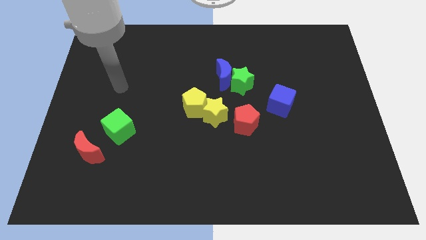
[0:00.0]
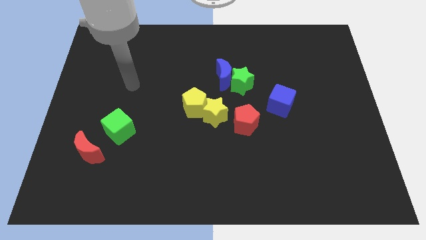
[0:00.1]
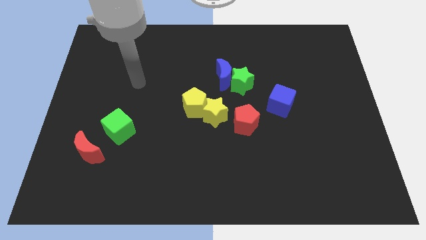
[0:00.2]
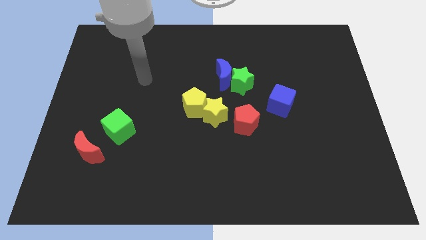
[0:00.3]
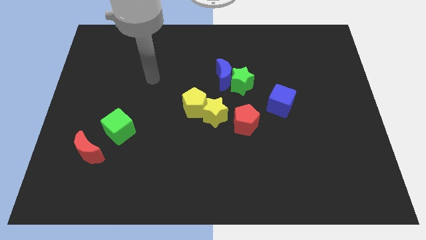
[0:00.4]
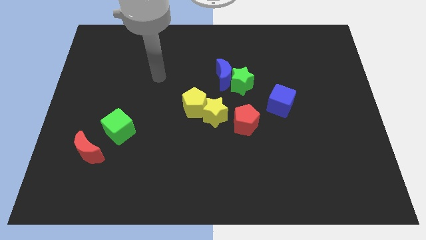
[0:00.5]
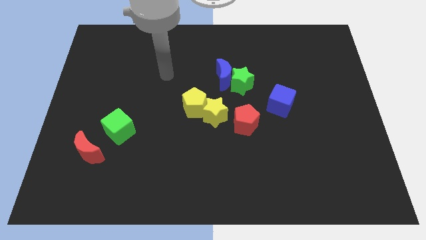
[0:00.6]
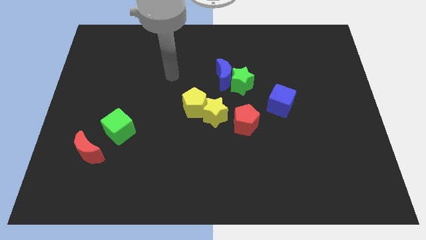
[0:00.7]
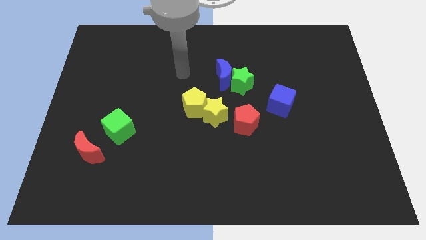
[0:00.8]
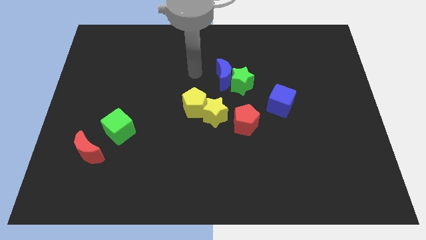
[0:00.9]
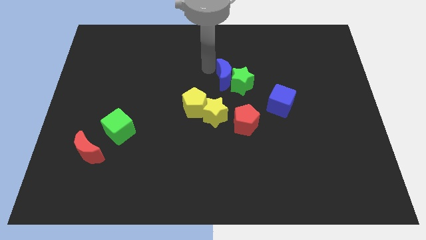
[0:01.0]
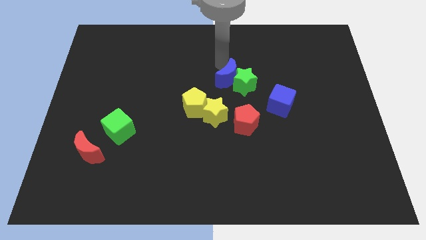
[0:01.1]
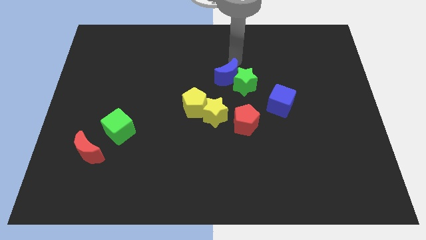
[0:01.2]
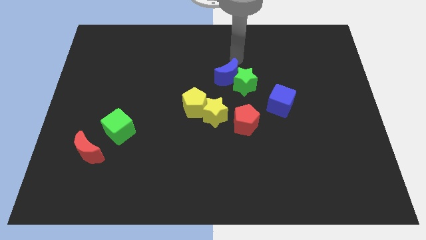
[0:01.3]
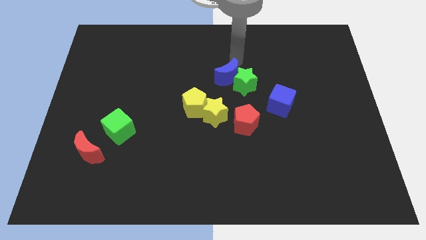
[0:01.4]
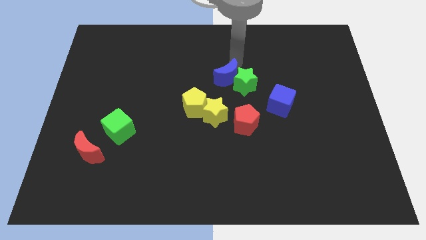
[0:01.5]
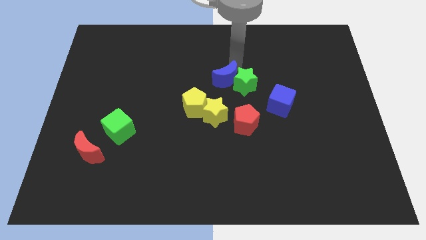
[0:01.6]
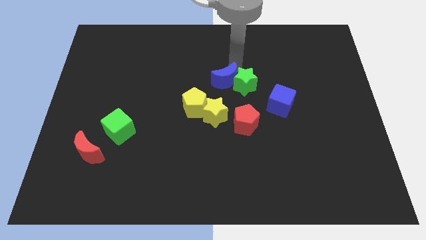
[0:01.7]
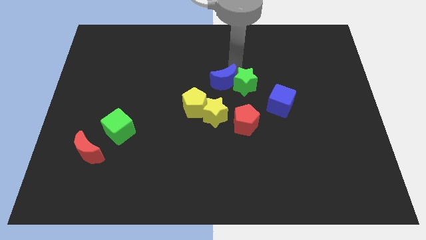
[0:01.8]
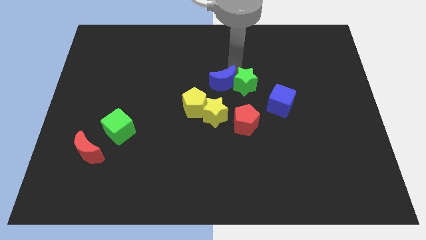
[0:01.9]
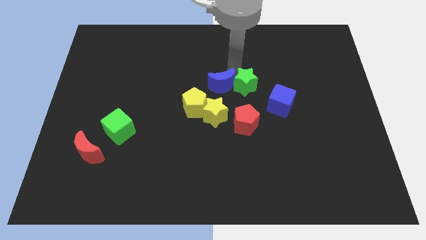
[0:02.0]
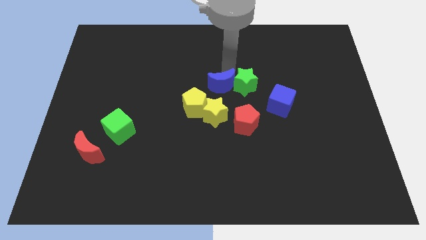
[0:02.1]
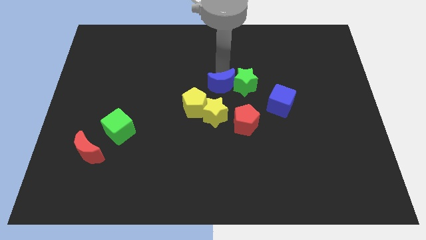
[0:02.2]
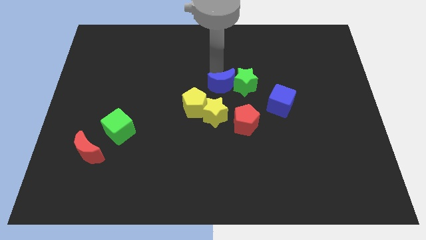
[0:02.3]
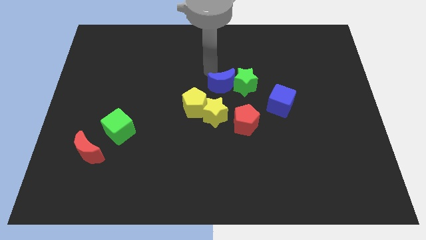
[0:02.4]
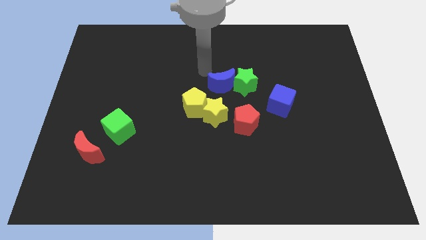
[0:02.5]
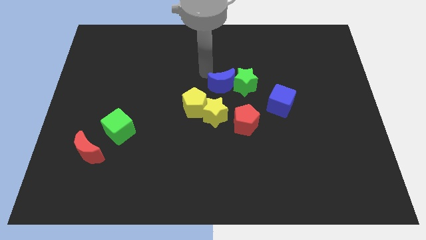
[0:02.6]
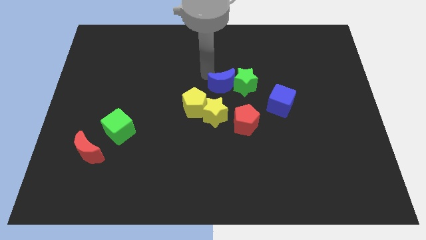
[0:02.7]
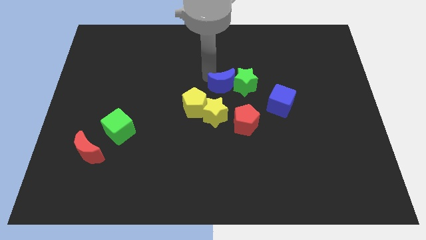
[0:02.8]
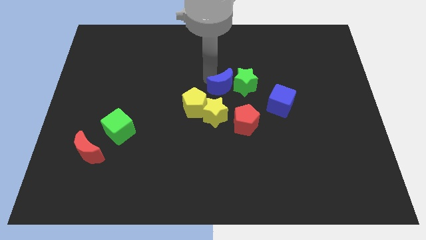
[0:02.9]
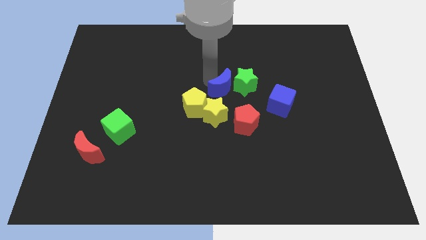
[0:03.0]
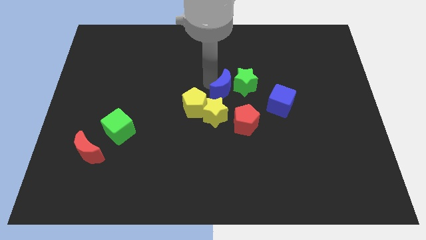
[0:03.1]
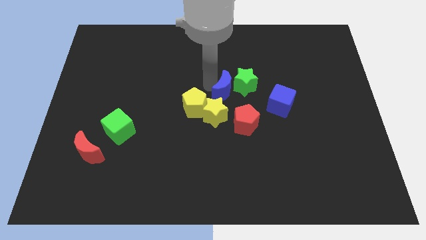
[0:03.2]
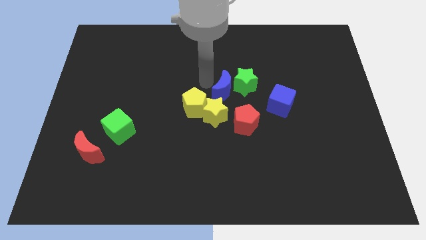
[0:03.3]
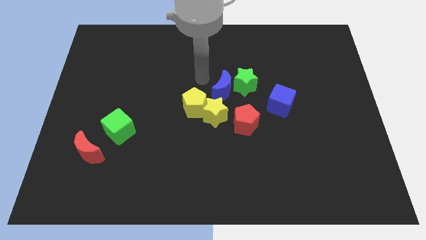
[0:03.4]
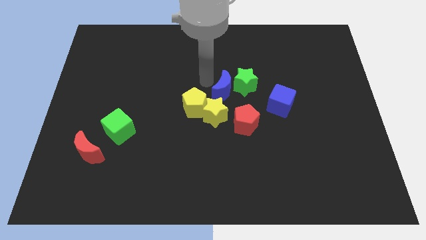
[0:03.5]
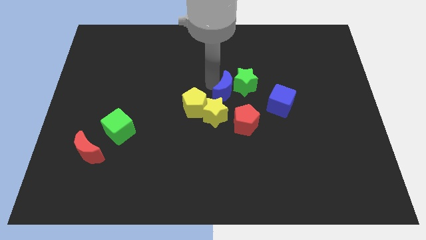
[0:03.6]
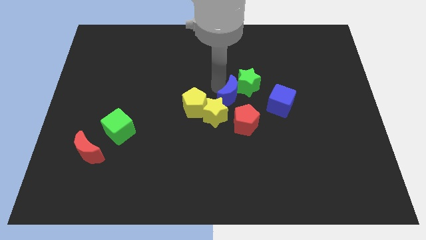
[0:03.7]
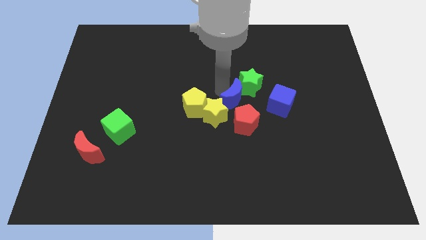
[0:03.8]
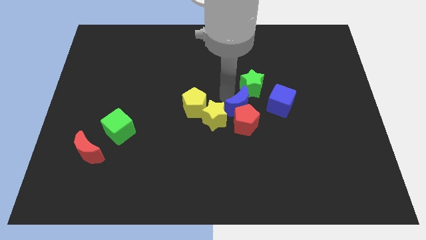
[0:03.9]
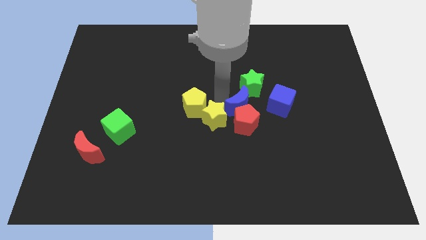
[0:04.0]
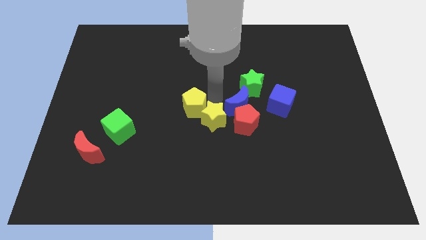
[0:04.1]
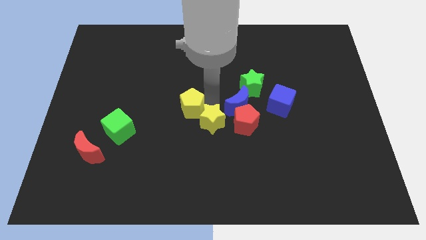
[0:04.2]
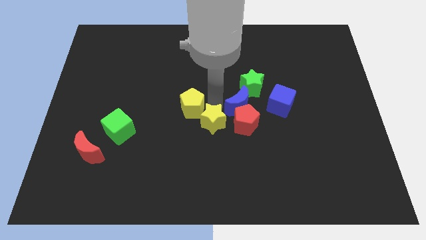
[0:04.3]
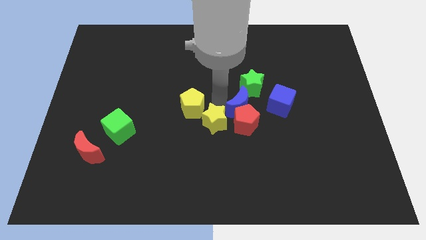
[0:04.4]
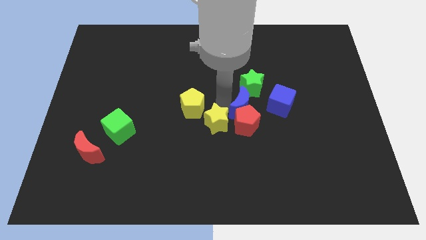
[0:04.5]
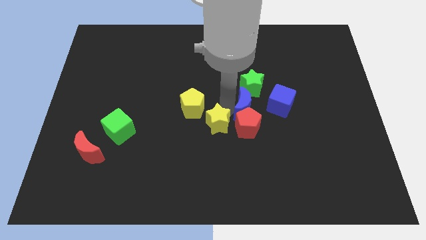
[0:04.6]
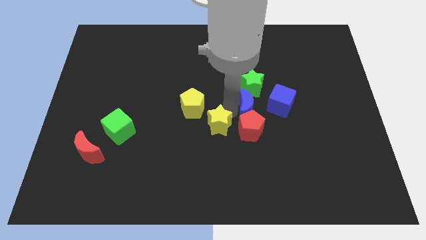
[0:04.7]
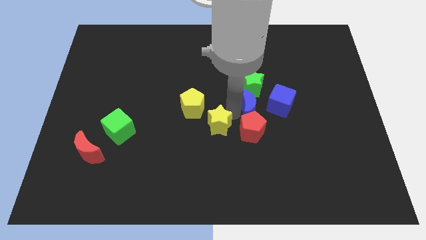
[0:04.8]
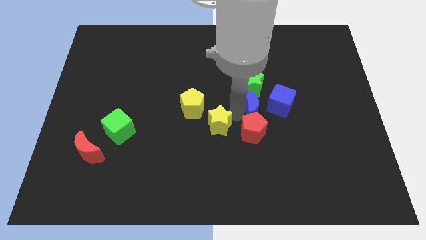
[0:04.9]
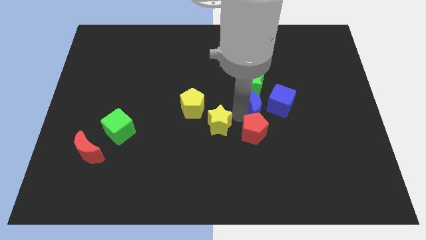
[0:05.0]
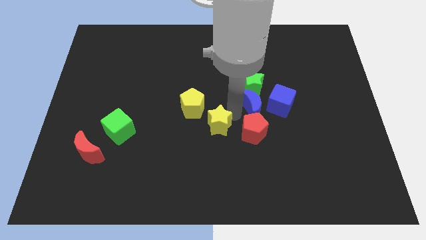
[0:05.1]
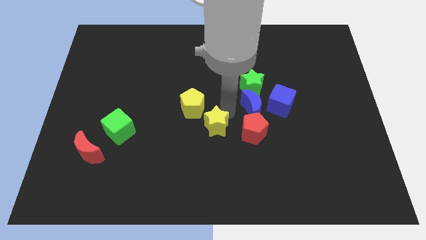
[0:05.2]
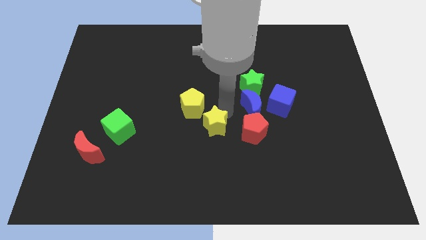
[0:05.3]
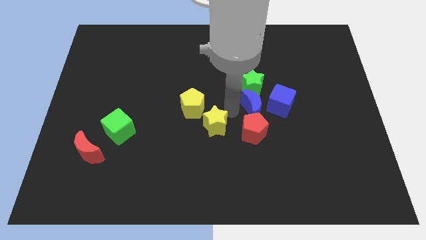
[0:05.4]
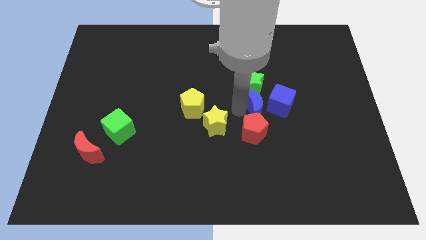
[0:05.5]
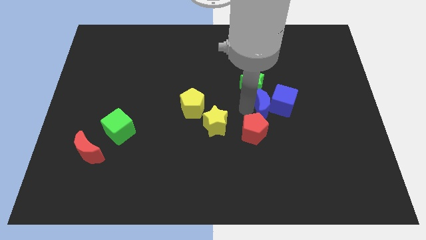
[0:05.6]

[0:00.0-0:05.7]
slide the blue moon to the blue cube

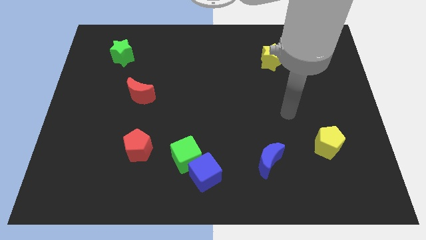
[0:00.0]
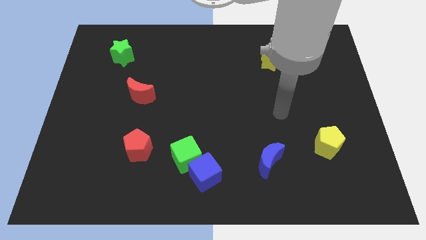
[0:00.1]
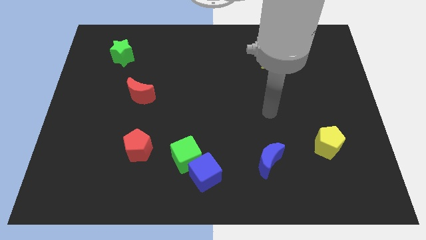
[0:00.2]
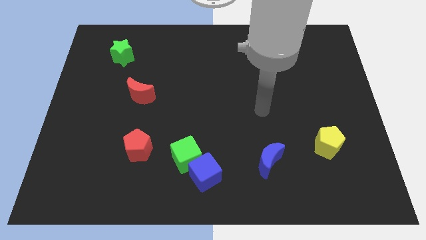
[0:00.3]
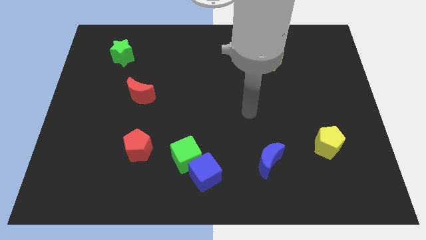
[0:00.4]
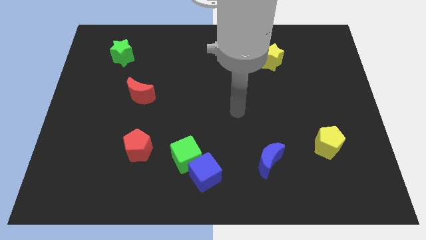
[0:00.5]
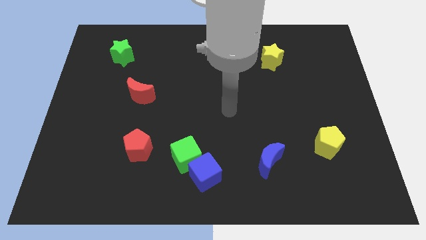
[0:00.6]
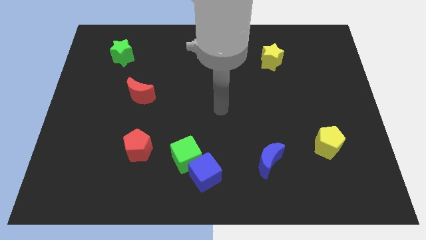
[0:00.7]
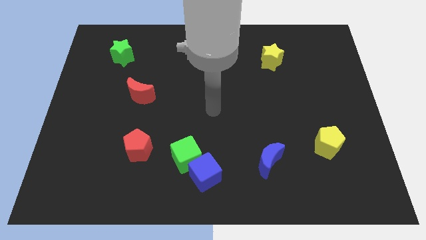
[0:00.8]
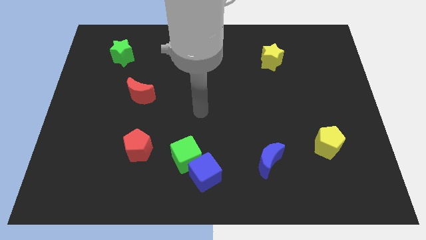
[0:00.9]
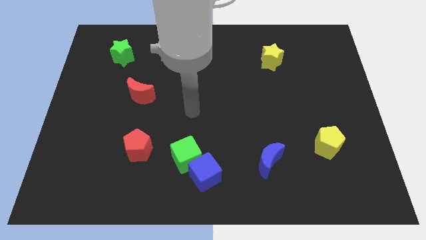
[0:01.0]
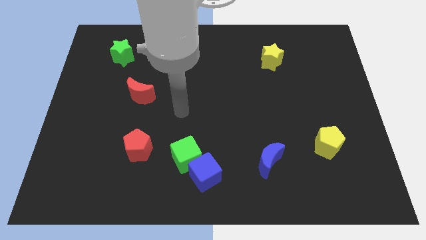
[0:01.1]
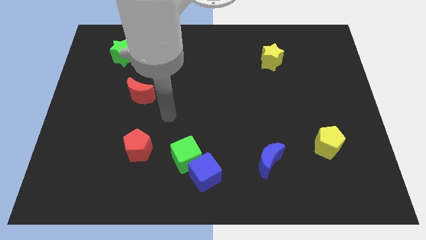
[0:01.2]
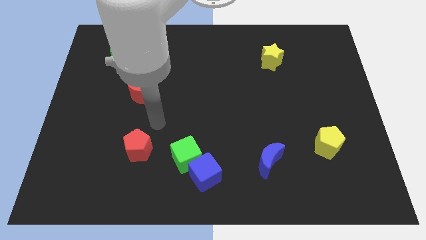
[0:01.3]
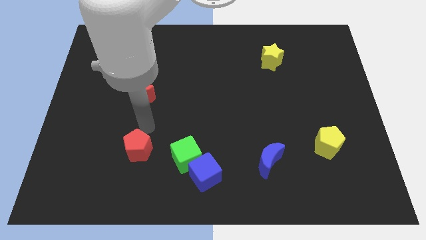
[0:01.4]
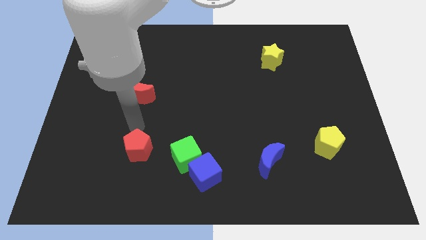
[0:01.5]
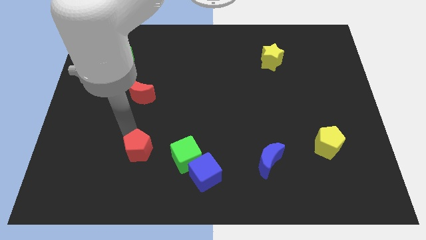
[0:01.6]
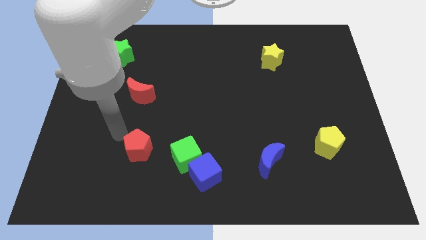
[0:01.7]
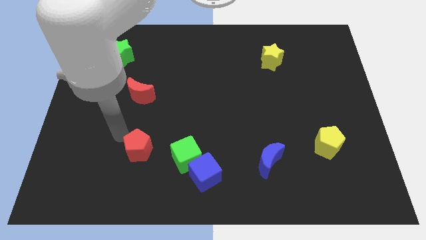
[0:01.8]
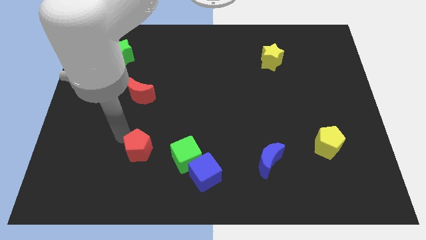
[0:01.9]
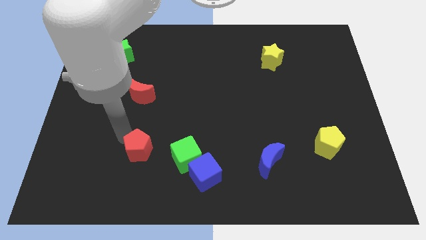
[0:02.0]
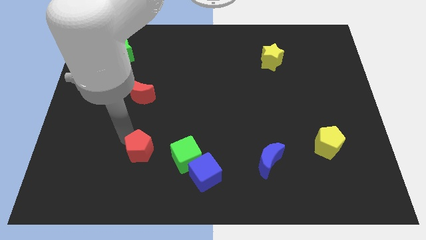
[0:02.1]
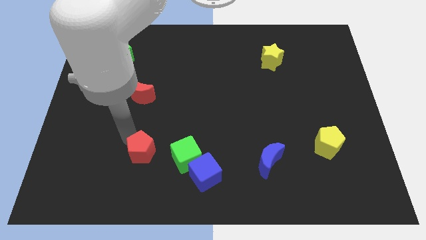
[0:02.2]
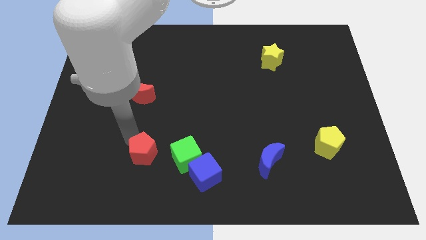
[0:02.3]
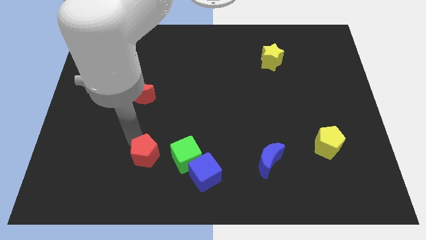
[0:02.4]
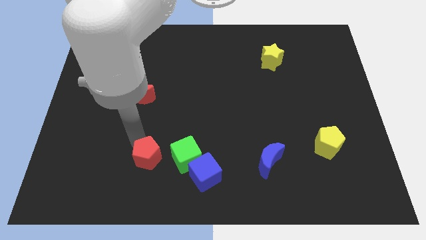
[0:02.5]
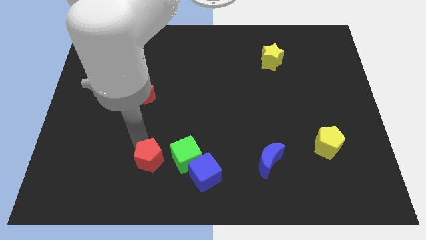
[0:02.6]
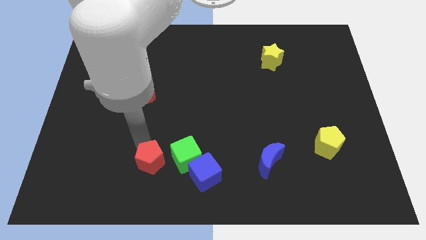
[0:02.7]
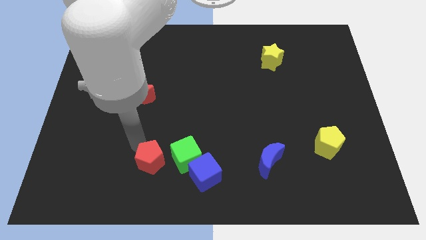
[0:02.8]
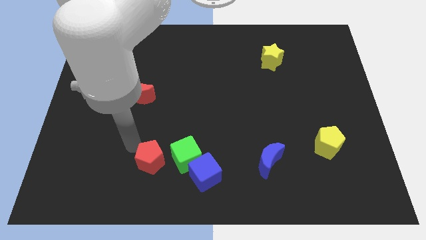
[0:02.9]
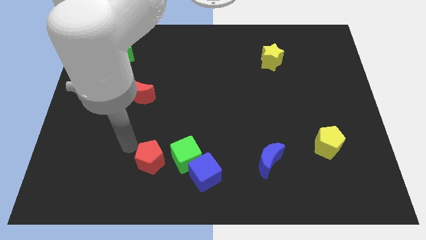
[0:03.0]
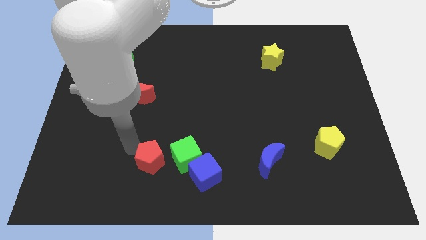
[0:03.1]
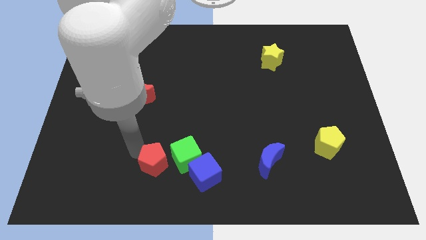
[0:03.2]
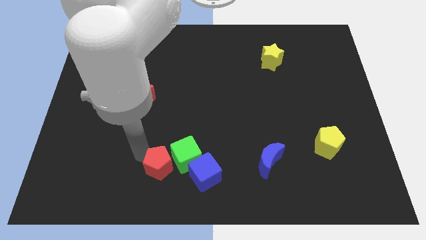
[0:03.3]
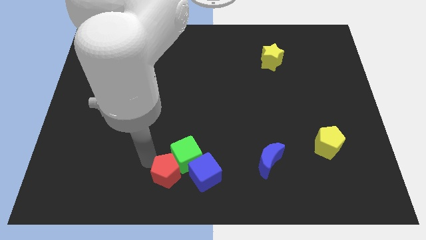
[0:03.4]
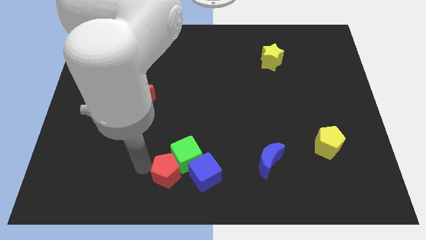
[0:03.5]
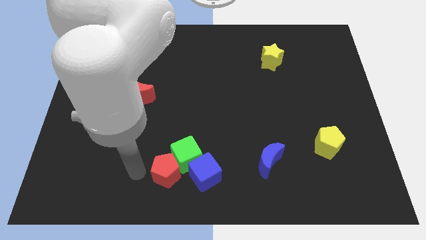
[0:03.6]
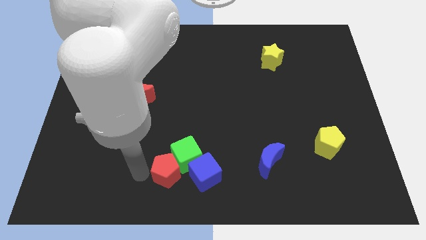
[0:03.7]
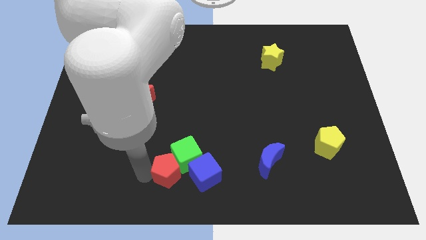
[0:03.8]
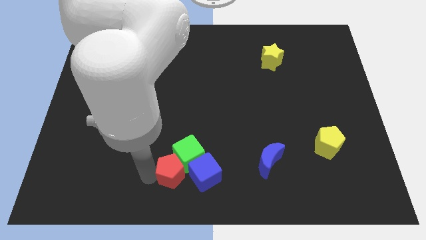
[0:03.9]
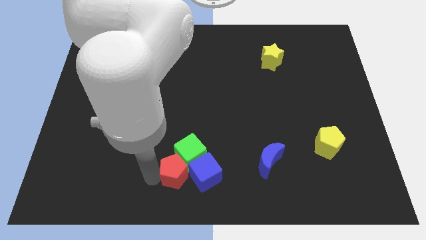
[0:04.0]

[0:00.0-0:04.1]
slide the red pentagon to the blue cube
